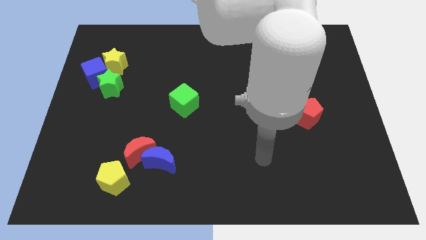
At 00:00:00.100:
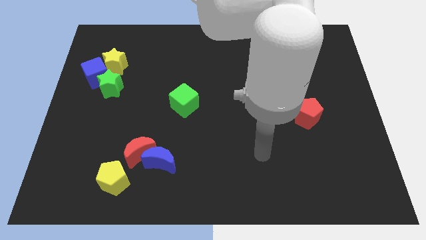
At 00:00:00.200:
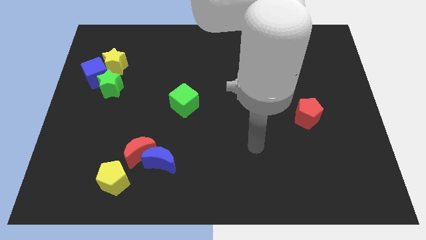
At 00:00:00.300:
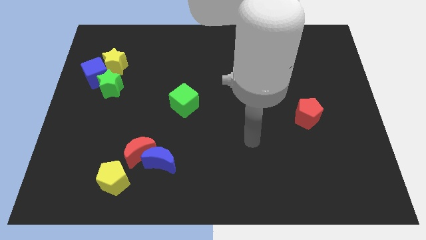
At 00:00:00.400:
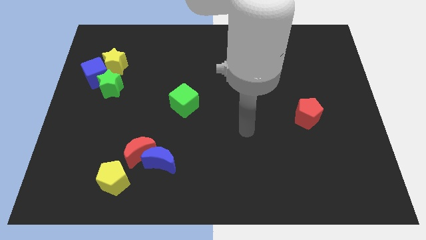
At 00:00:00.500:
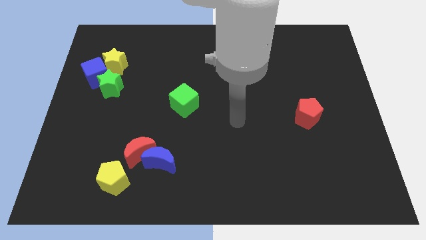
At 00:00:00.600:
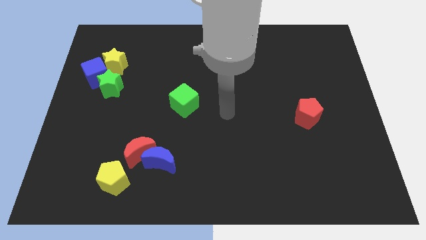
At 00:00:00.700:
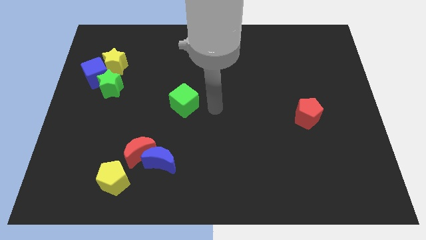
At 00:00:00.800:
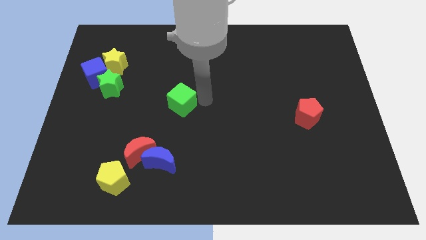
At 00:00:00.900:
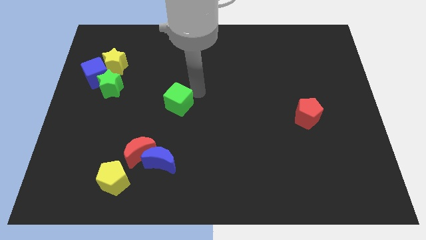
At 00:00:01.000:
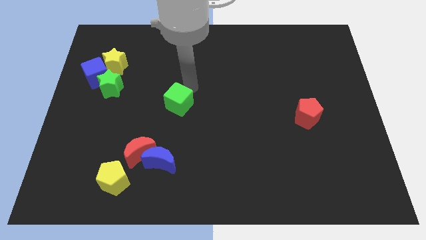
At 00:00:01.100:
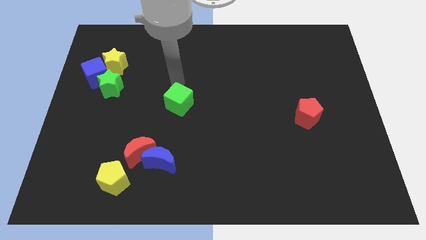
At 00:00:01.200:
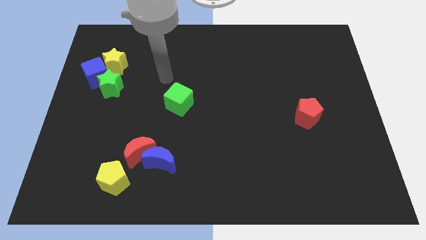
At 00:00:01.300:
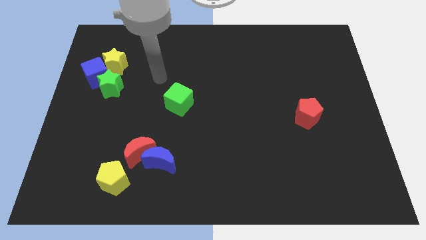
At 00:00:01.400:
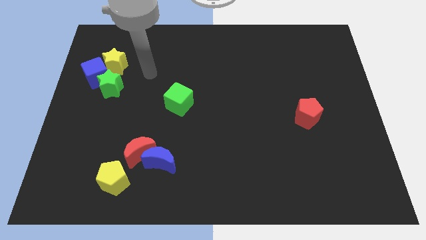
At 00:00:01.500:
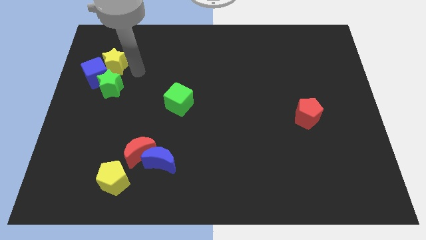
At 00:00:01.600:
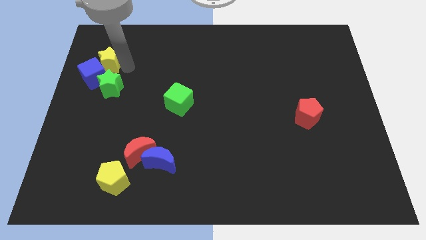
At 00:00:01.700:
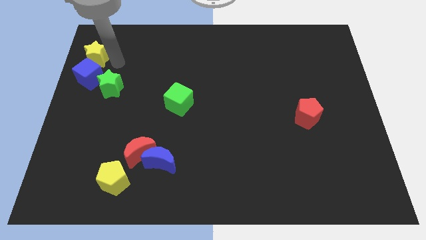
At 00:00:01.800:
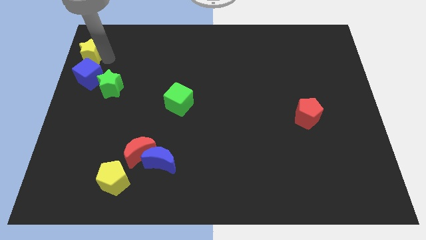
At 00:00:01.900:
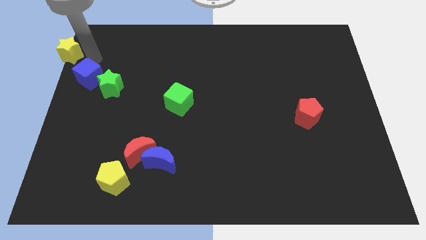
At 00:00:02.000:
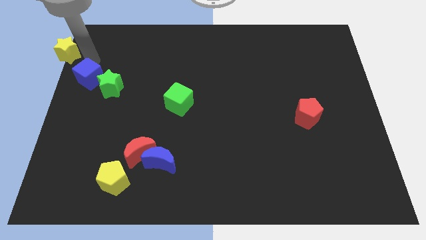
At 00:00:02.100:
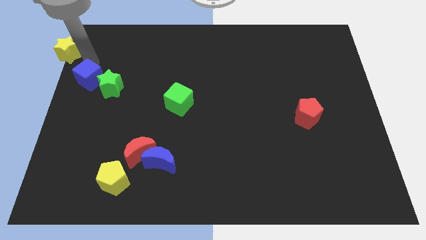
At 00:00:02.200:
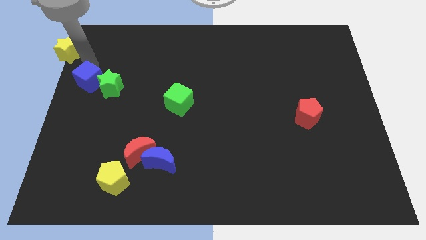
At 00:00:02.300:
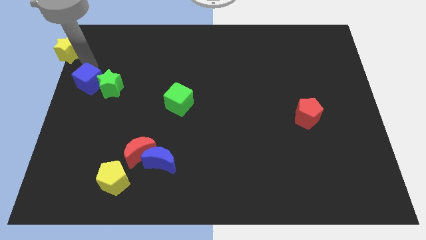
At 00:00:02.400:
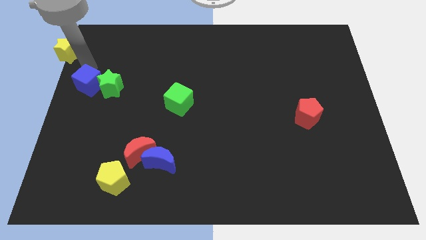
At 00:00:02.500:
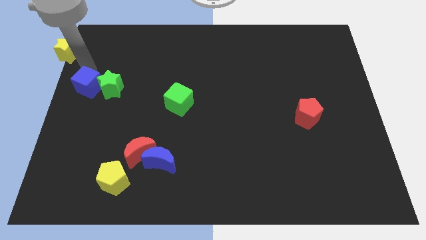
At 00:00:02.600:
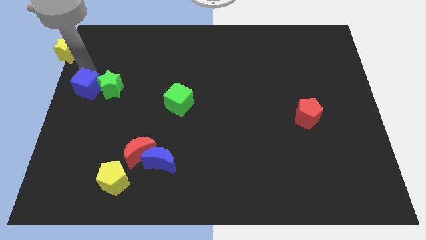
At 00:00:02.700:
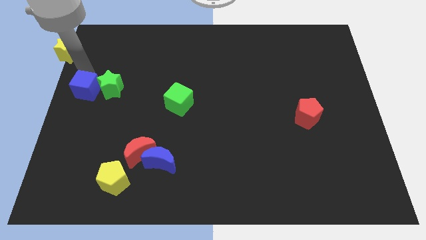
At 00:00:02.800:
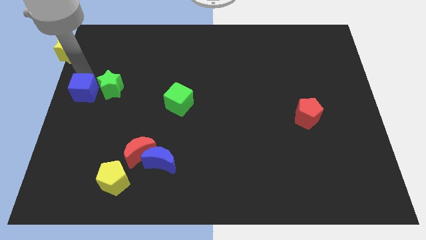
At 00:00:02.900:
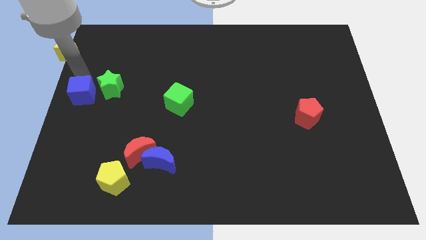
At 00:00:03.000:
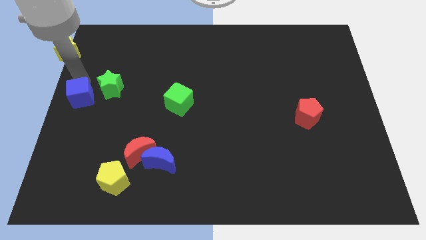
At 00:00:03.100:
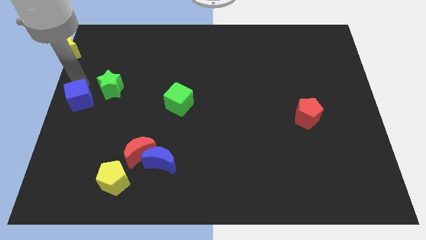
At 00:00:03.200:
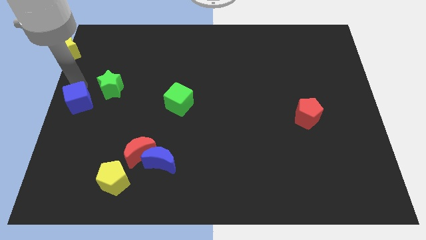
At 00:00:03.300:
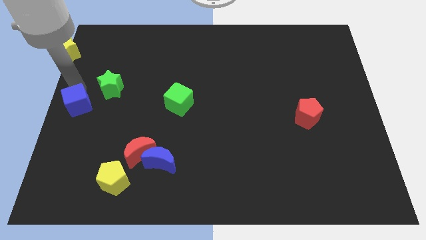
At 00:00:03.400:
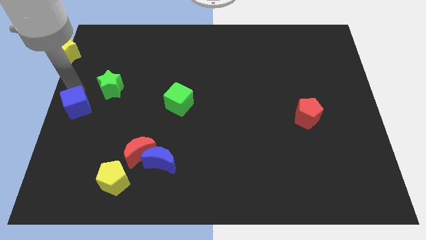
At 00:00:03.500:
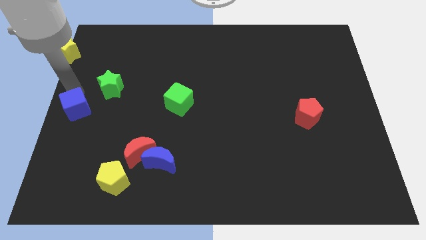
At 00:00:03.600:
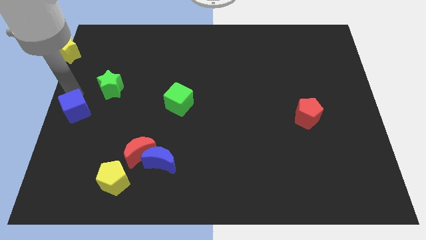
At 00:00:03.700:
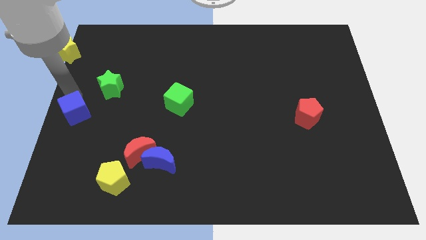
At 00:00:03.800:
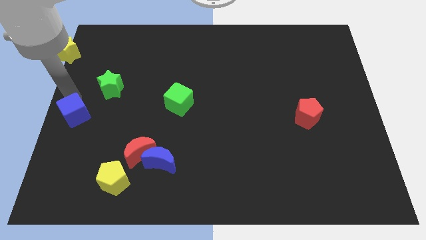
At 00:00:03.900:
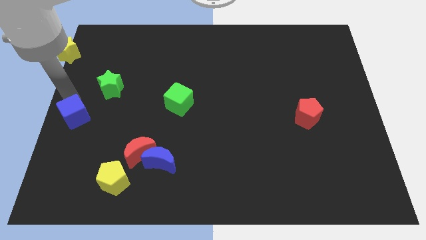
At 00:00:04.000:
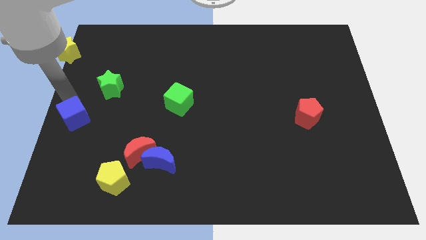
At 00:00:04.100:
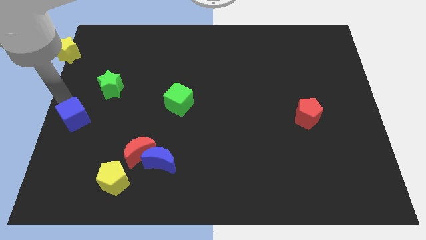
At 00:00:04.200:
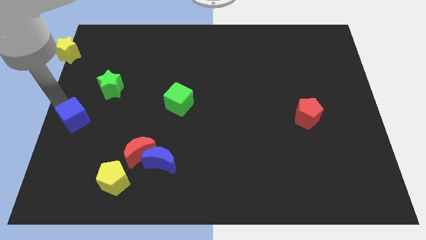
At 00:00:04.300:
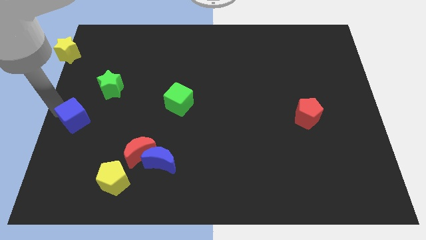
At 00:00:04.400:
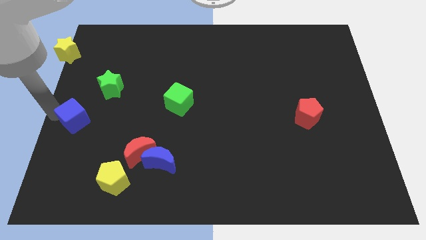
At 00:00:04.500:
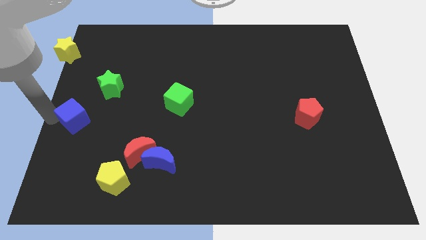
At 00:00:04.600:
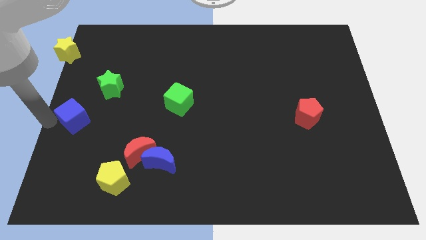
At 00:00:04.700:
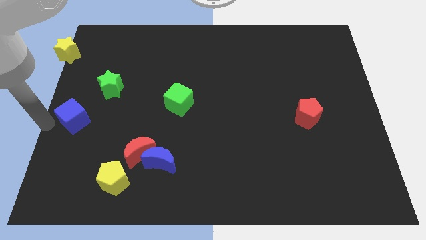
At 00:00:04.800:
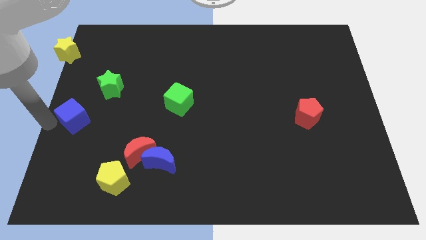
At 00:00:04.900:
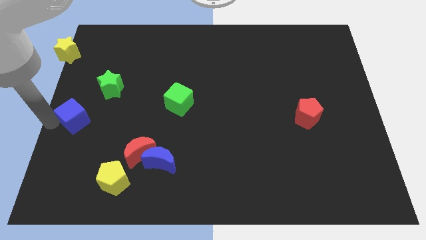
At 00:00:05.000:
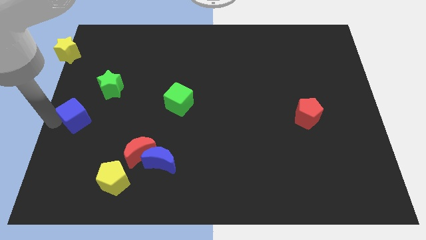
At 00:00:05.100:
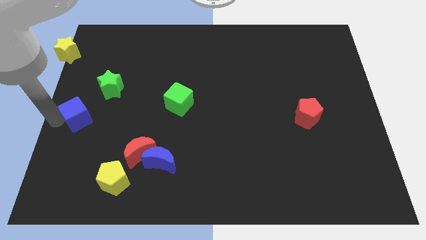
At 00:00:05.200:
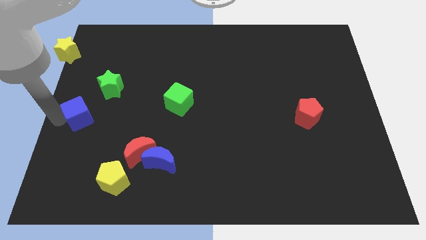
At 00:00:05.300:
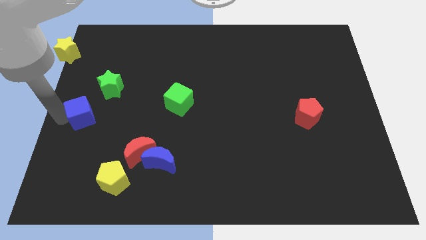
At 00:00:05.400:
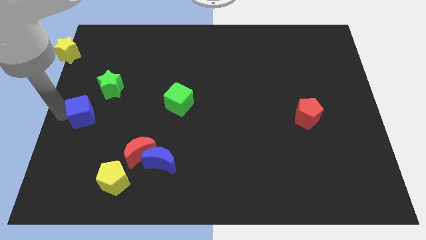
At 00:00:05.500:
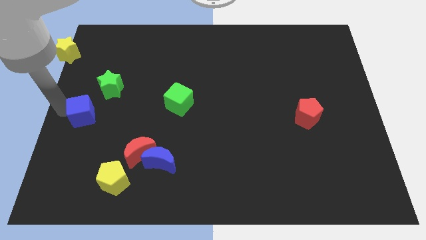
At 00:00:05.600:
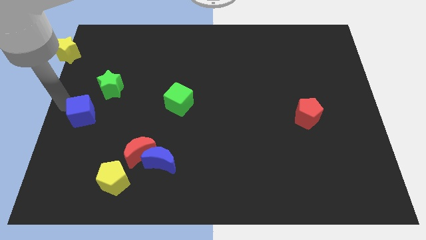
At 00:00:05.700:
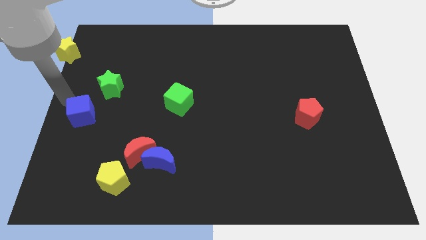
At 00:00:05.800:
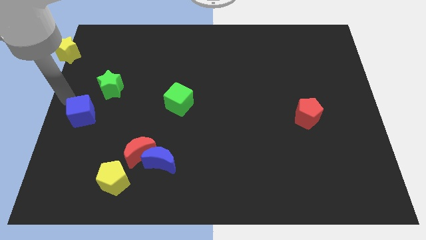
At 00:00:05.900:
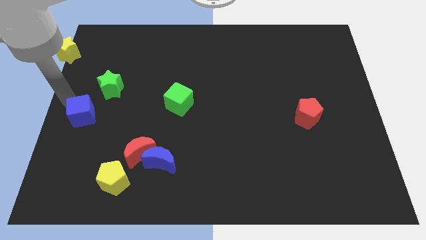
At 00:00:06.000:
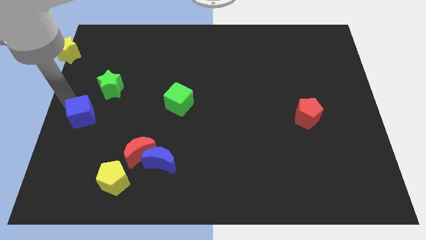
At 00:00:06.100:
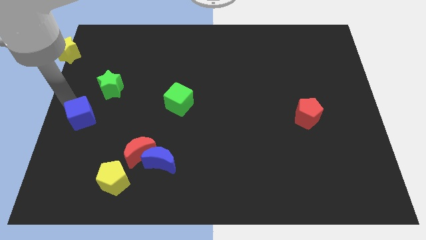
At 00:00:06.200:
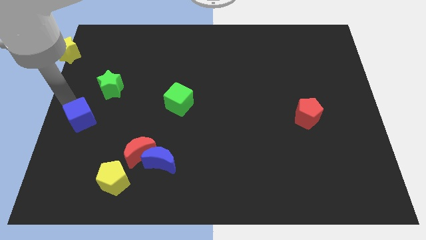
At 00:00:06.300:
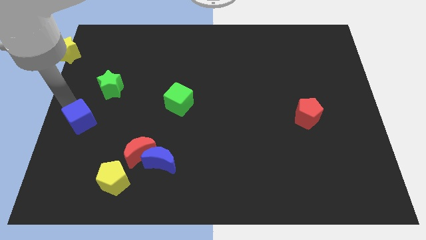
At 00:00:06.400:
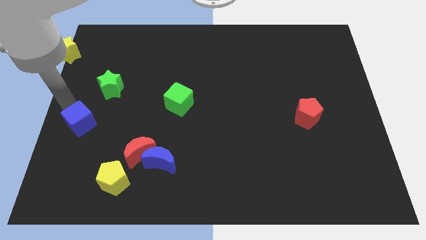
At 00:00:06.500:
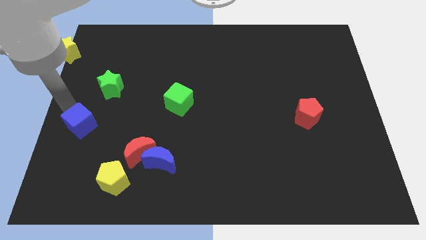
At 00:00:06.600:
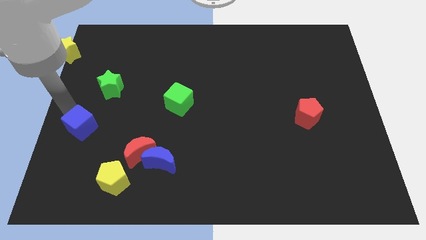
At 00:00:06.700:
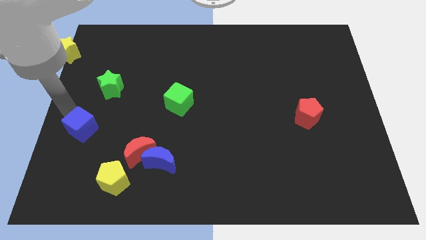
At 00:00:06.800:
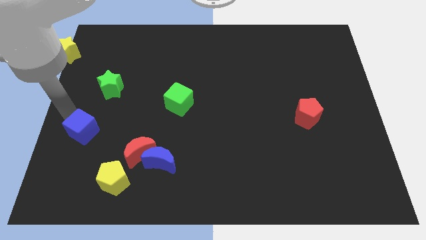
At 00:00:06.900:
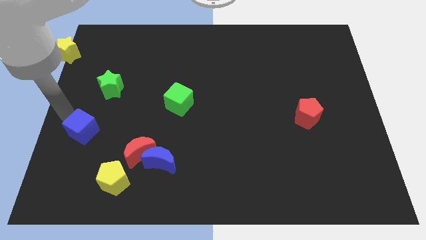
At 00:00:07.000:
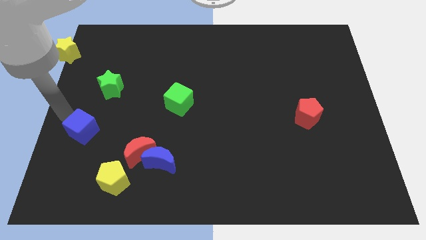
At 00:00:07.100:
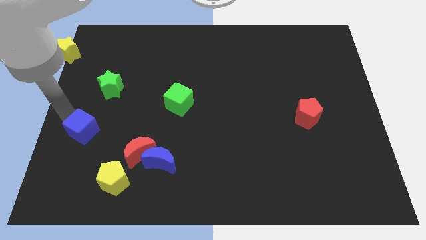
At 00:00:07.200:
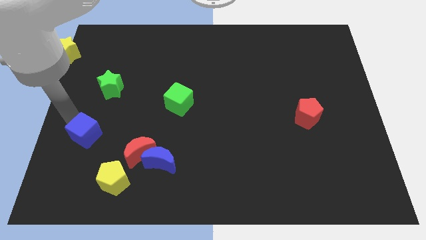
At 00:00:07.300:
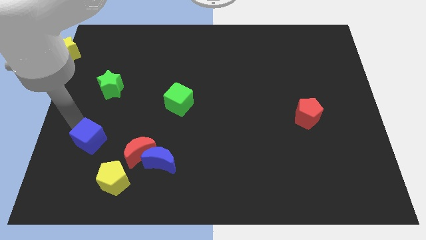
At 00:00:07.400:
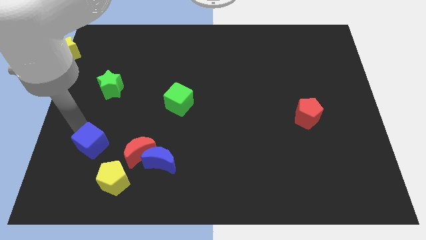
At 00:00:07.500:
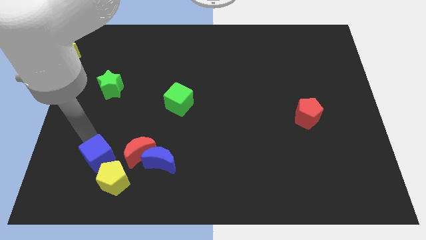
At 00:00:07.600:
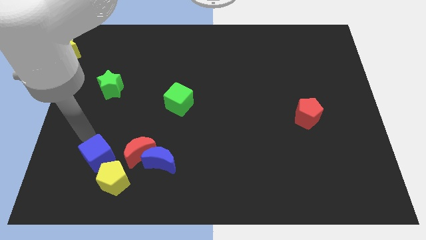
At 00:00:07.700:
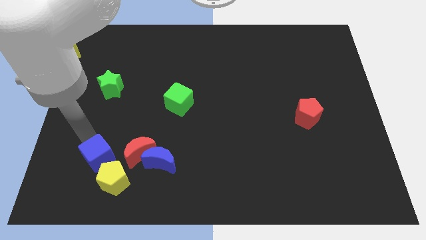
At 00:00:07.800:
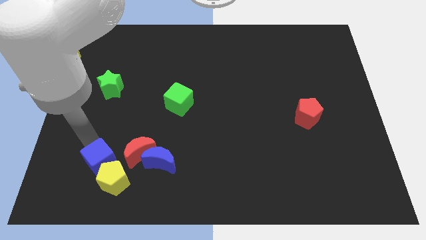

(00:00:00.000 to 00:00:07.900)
move the blue cube to the yellow pentagon
